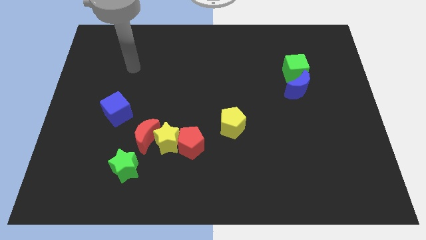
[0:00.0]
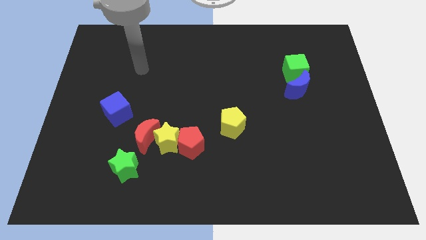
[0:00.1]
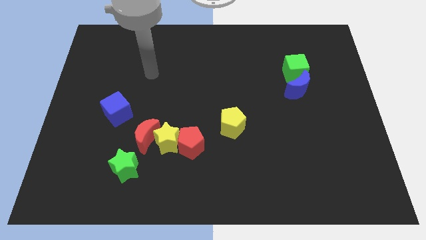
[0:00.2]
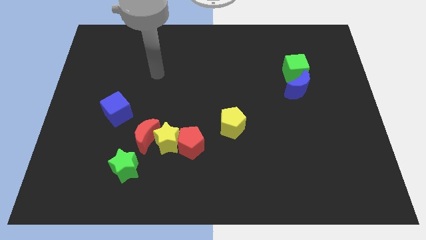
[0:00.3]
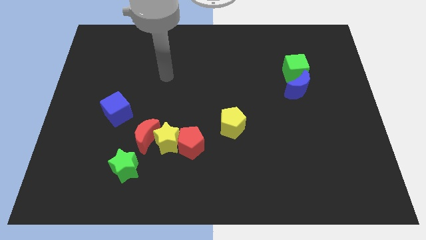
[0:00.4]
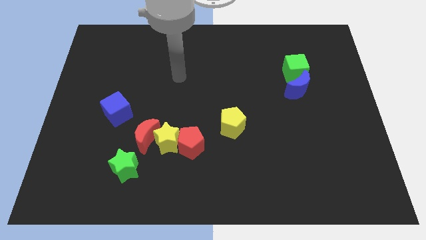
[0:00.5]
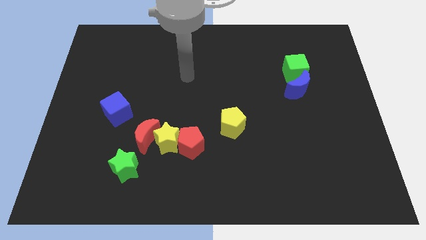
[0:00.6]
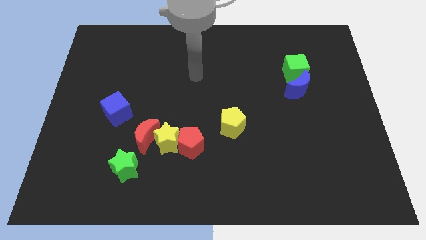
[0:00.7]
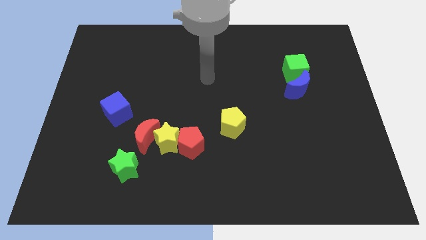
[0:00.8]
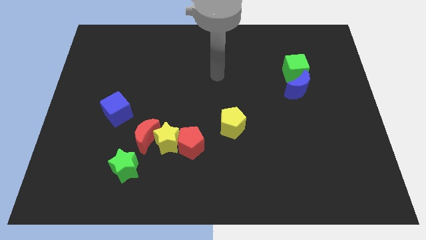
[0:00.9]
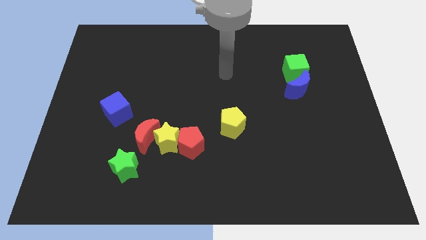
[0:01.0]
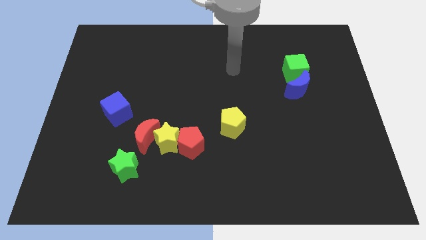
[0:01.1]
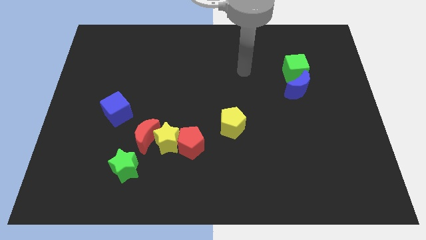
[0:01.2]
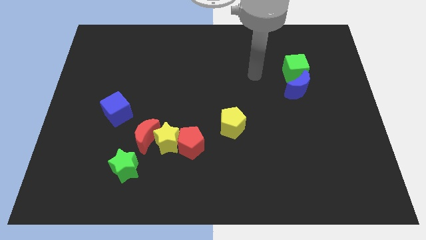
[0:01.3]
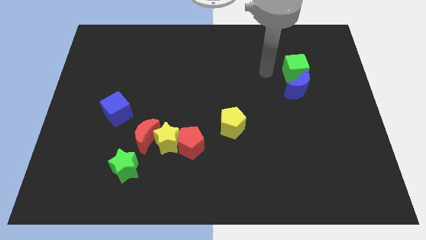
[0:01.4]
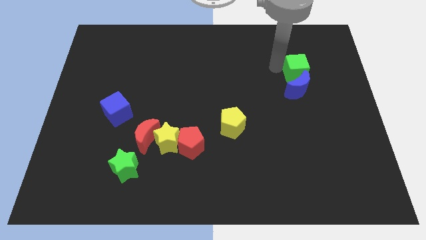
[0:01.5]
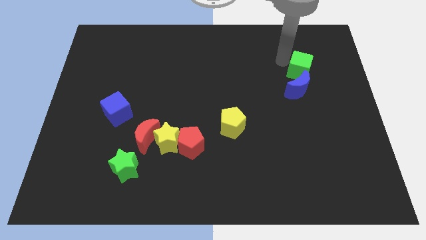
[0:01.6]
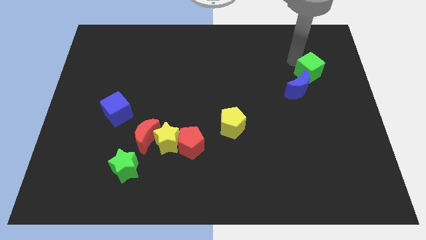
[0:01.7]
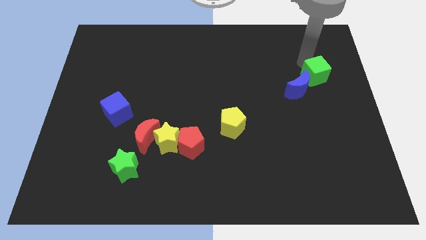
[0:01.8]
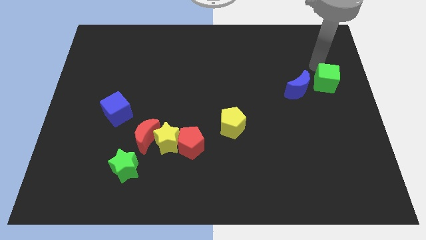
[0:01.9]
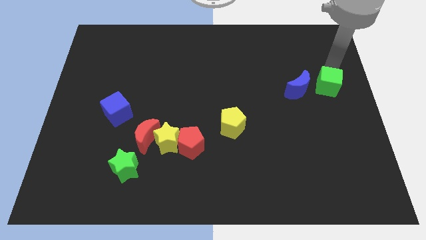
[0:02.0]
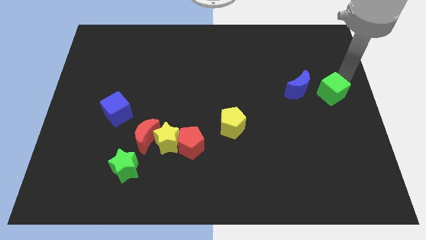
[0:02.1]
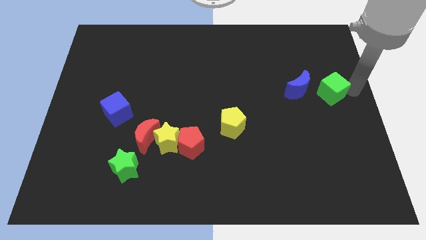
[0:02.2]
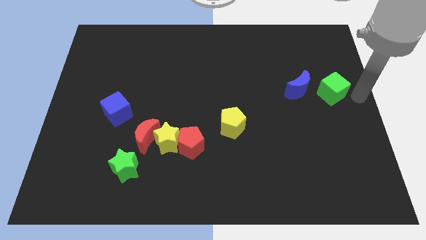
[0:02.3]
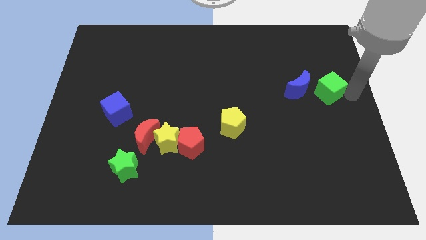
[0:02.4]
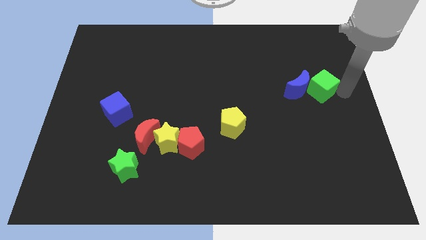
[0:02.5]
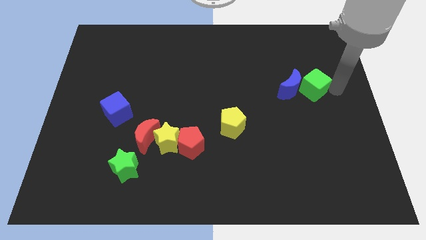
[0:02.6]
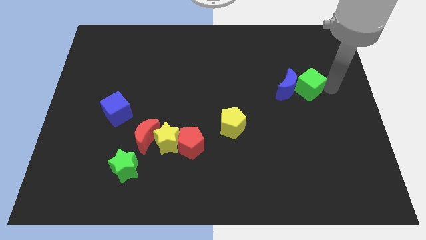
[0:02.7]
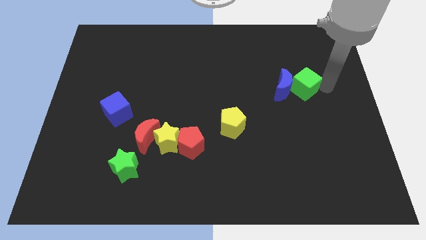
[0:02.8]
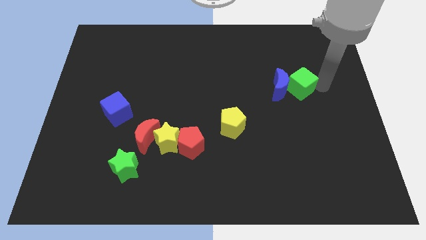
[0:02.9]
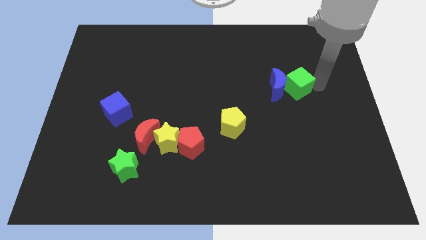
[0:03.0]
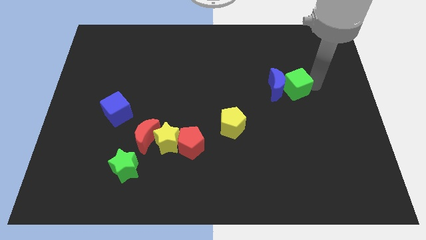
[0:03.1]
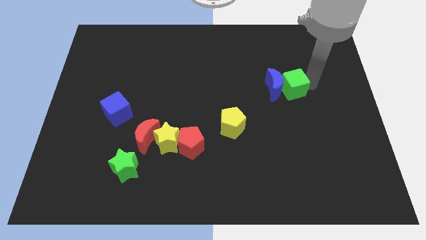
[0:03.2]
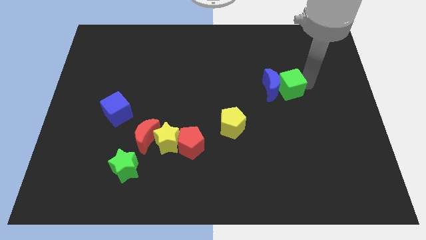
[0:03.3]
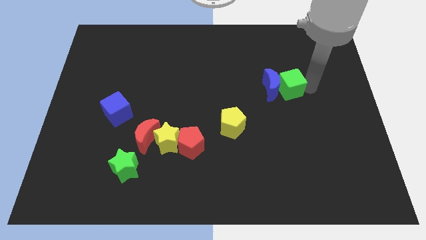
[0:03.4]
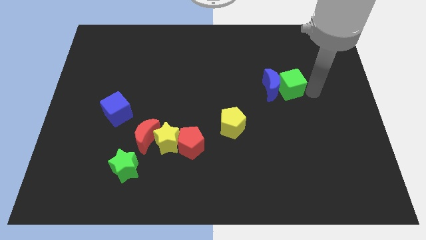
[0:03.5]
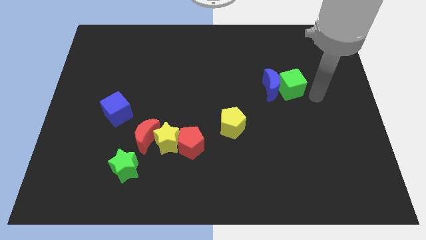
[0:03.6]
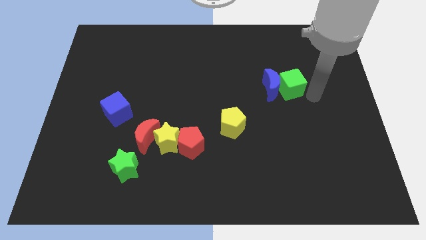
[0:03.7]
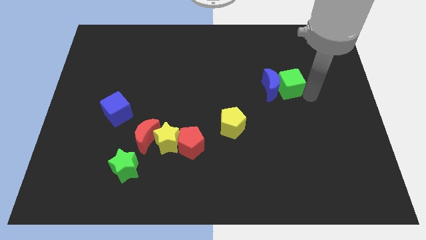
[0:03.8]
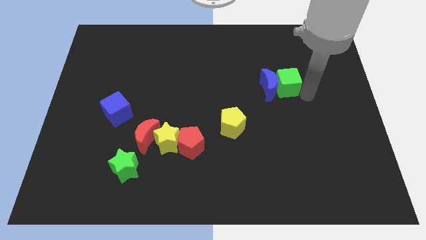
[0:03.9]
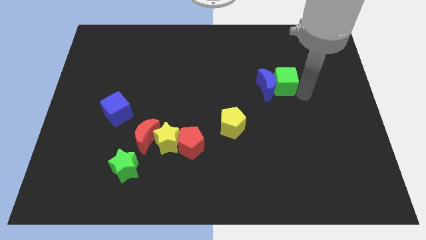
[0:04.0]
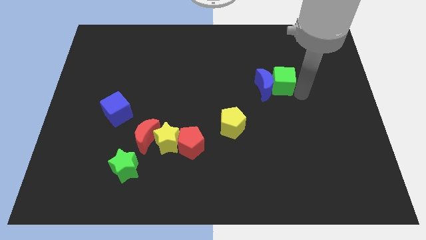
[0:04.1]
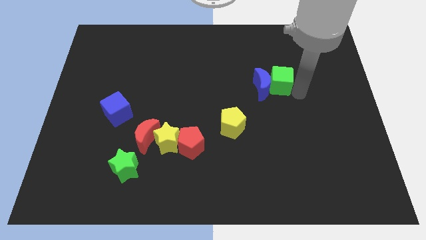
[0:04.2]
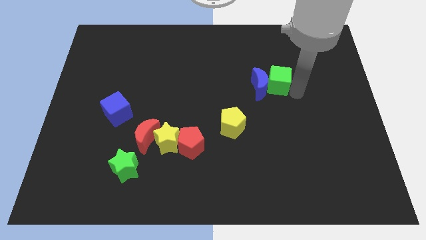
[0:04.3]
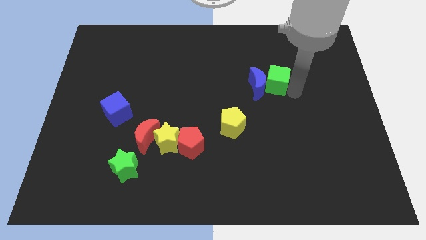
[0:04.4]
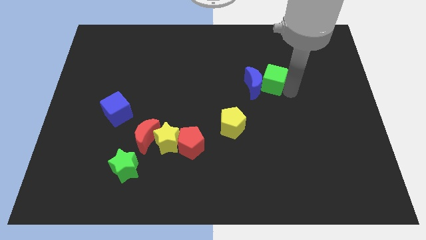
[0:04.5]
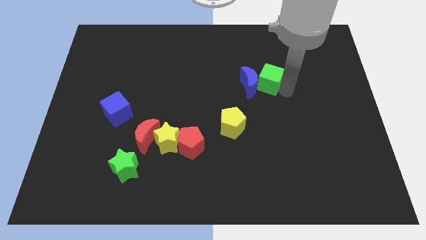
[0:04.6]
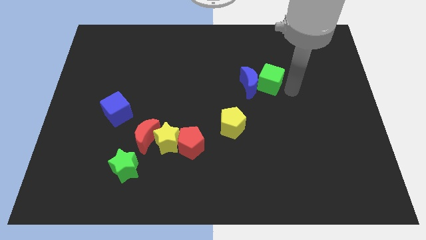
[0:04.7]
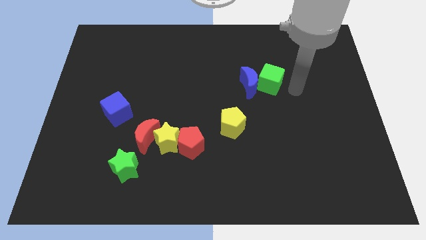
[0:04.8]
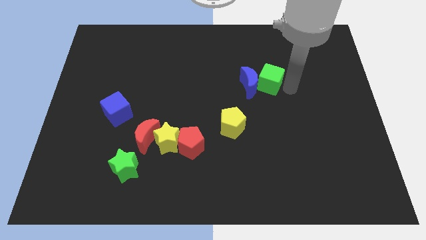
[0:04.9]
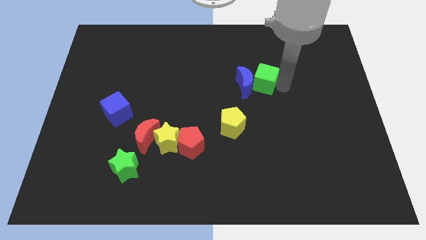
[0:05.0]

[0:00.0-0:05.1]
push the green cube to the left a bit

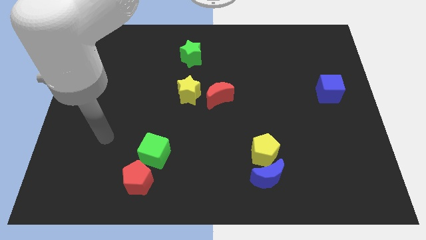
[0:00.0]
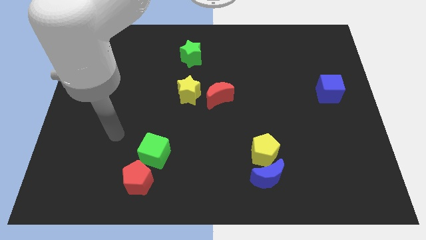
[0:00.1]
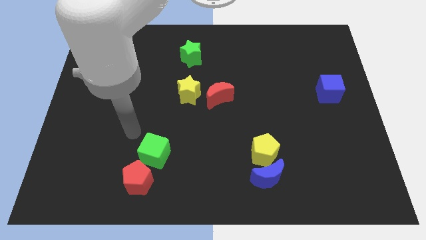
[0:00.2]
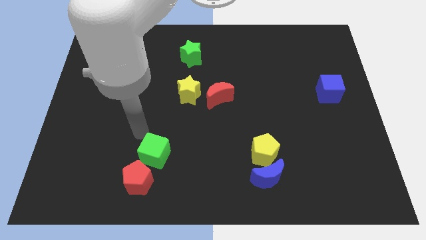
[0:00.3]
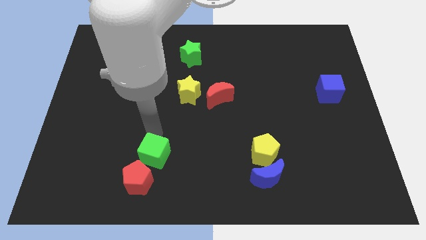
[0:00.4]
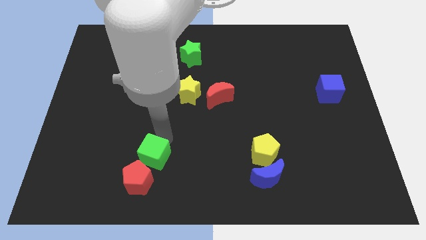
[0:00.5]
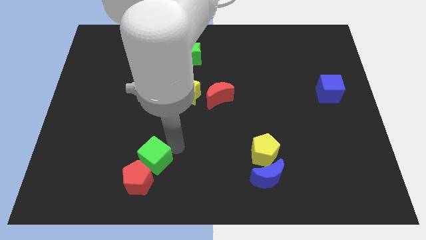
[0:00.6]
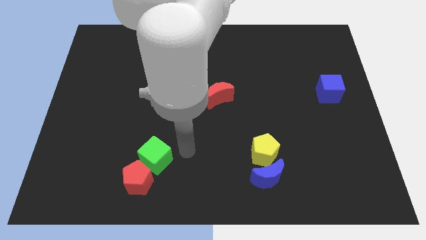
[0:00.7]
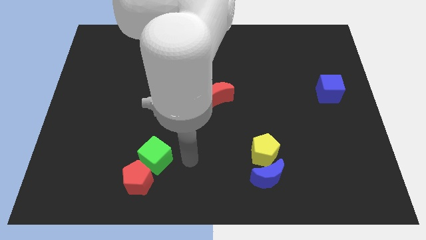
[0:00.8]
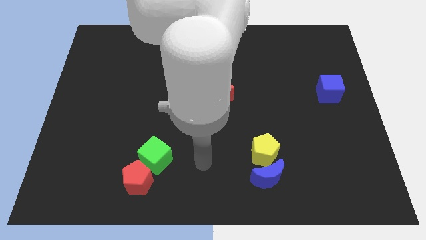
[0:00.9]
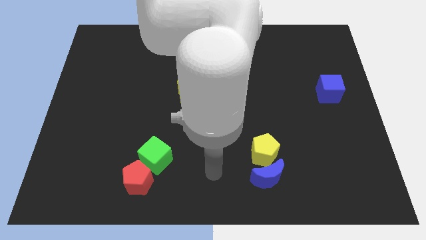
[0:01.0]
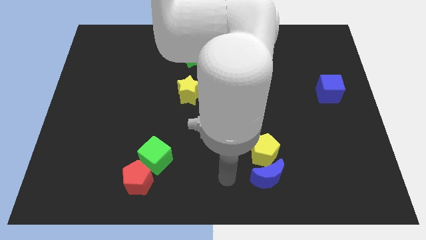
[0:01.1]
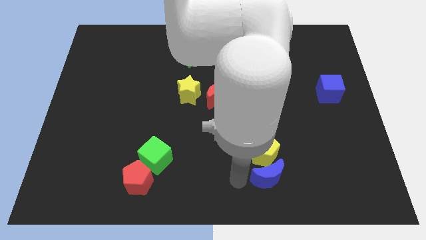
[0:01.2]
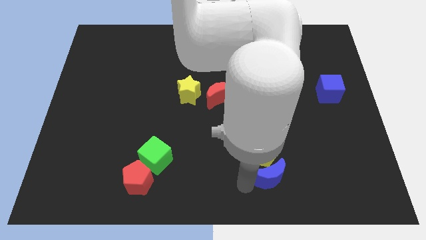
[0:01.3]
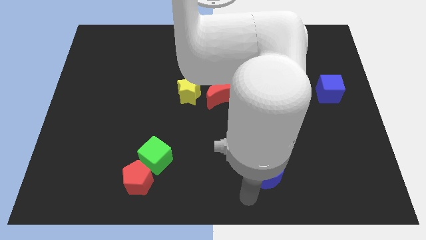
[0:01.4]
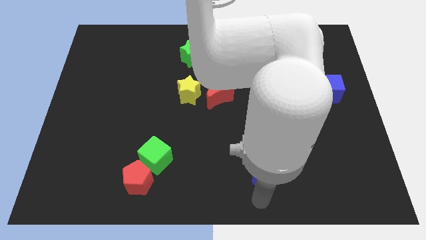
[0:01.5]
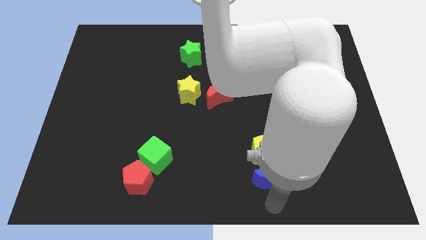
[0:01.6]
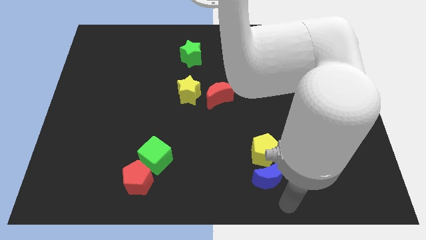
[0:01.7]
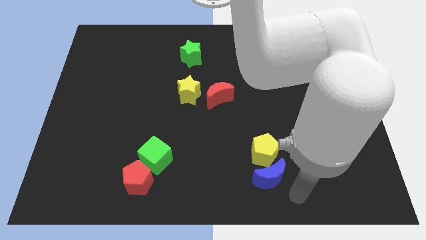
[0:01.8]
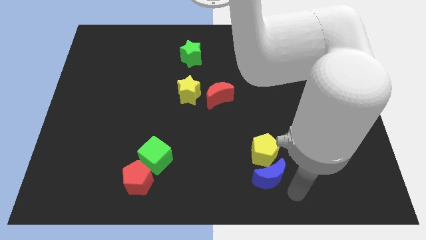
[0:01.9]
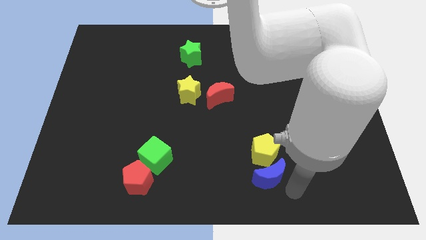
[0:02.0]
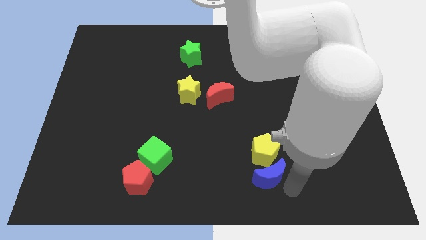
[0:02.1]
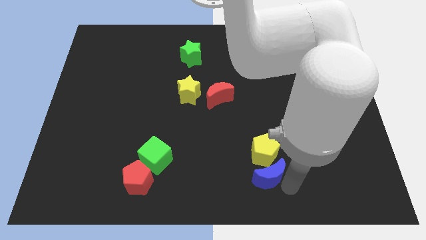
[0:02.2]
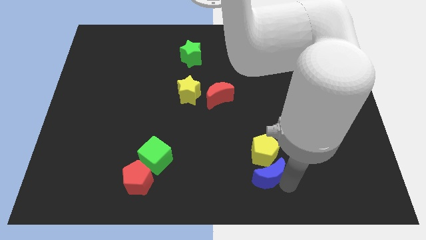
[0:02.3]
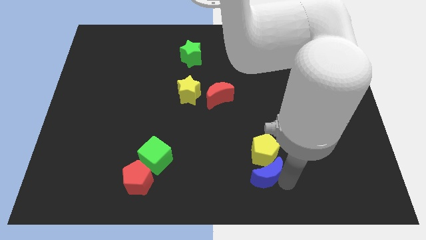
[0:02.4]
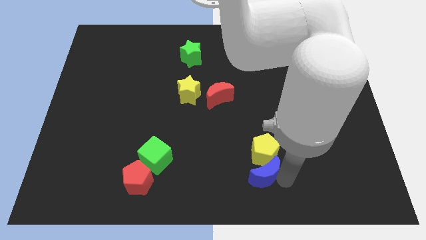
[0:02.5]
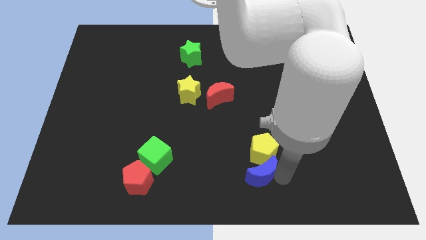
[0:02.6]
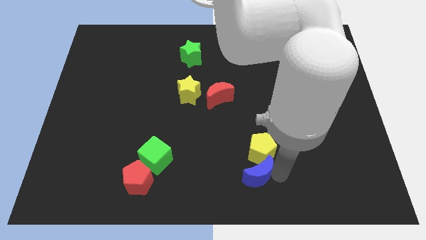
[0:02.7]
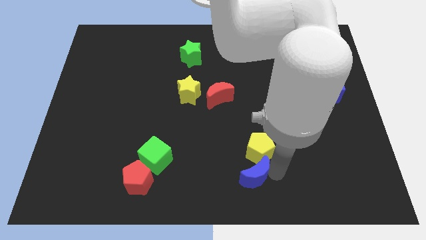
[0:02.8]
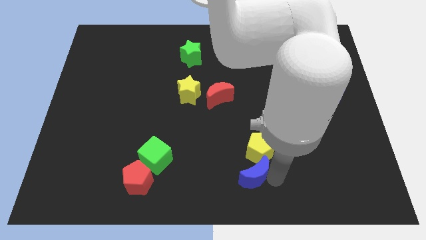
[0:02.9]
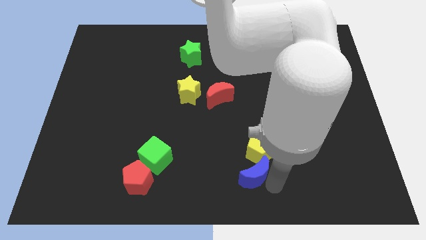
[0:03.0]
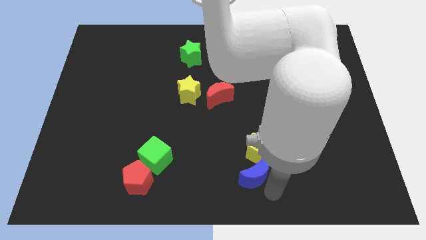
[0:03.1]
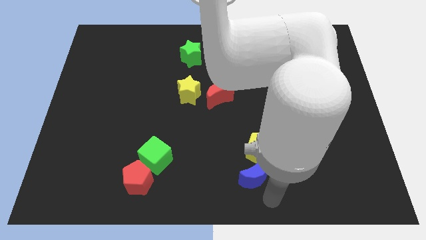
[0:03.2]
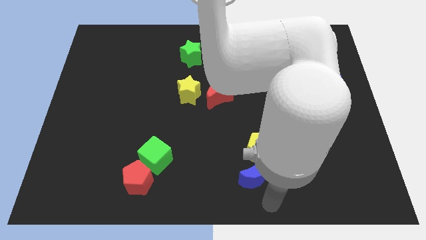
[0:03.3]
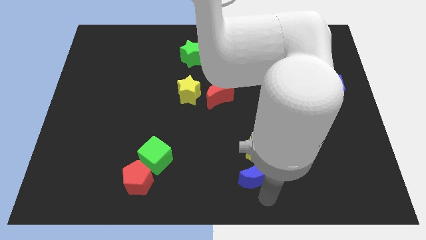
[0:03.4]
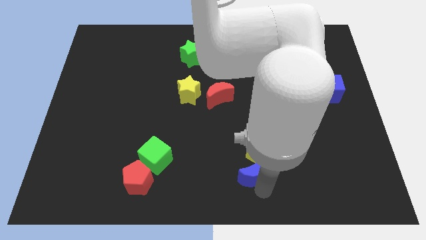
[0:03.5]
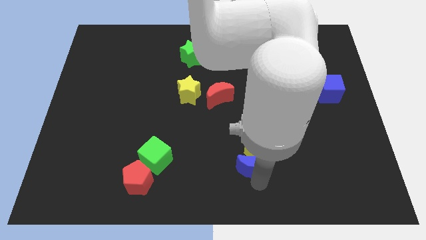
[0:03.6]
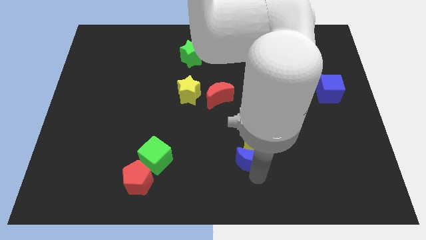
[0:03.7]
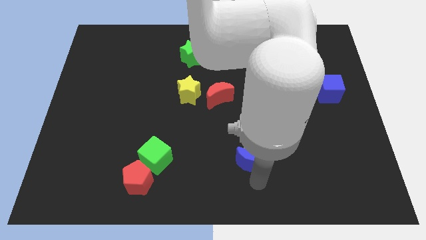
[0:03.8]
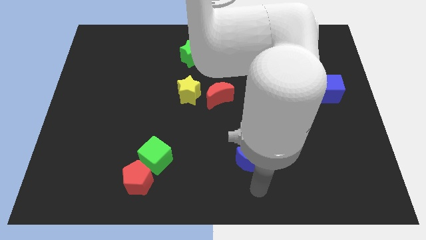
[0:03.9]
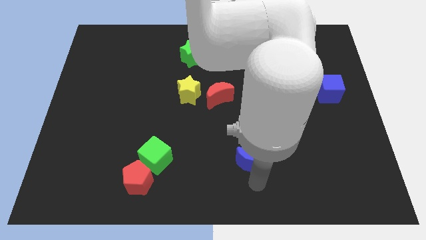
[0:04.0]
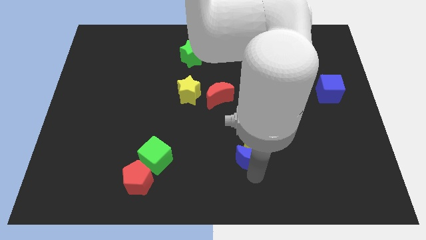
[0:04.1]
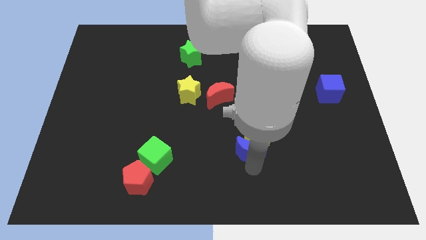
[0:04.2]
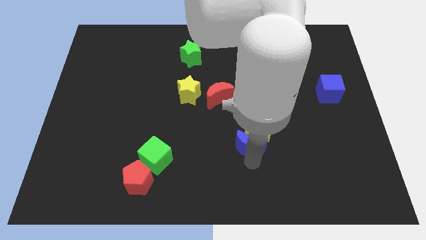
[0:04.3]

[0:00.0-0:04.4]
slightly move the blue moon up
